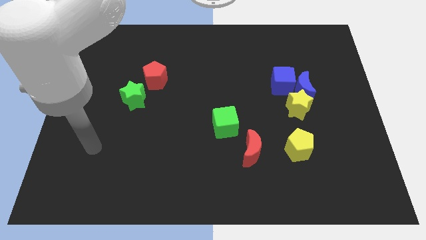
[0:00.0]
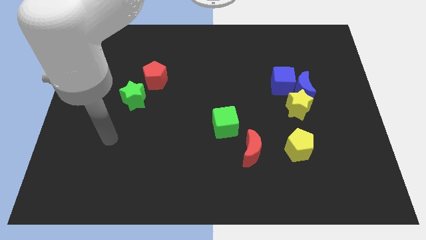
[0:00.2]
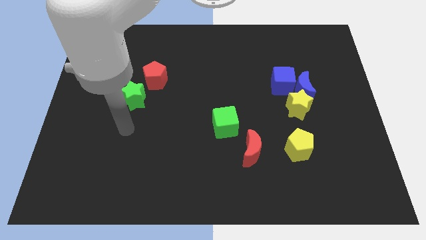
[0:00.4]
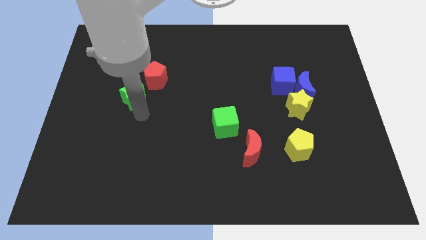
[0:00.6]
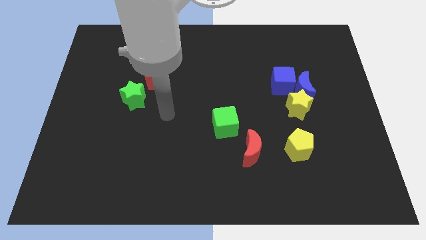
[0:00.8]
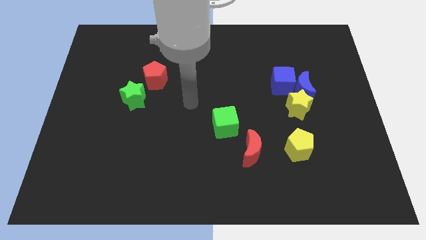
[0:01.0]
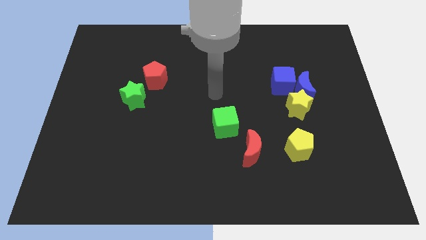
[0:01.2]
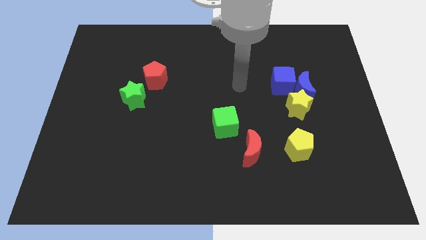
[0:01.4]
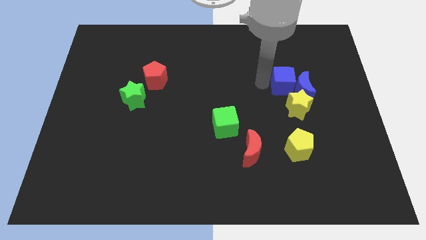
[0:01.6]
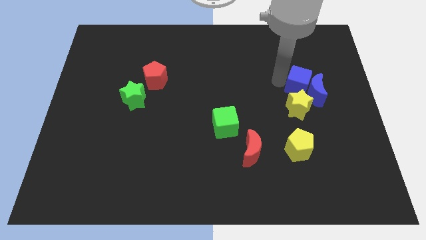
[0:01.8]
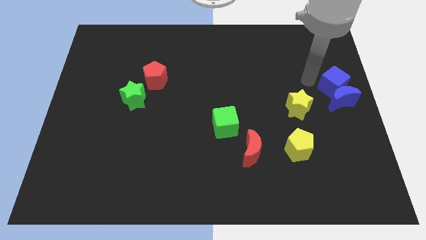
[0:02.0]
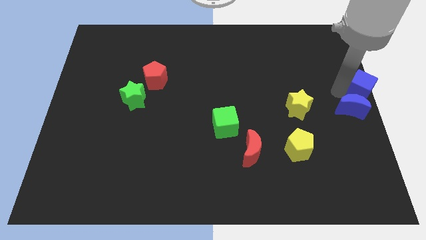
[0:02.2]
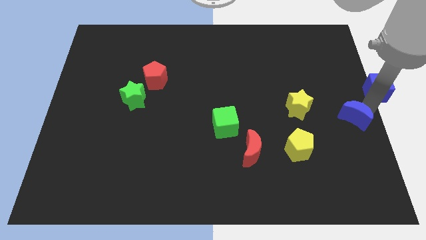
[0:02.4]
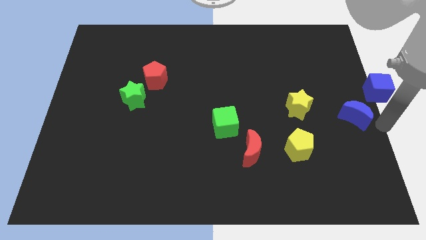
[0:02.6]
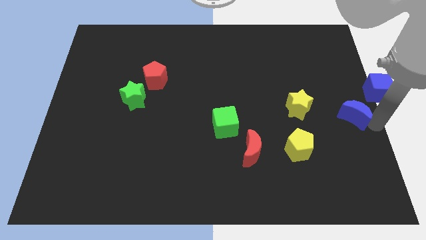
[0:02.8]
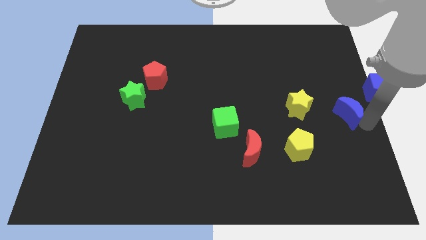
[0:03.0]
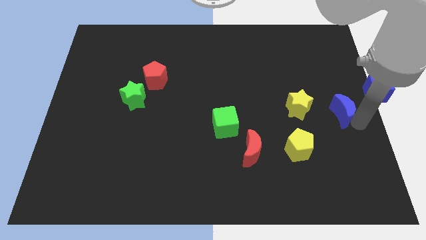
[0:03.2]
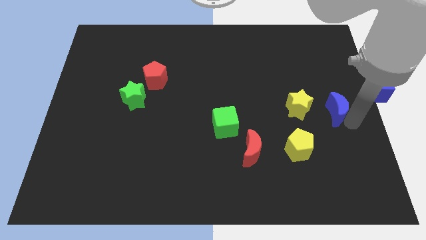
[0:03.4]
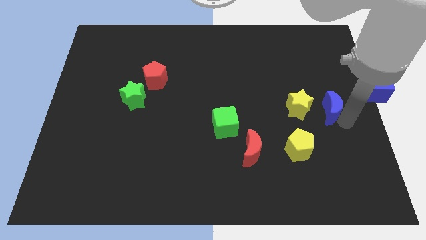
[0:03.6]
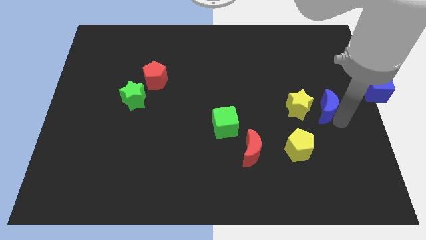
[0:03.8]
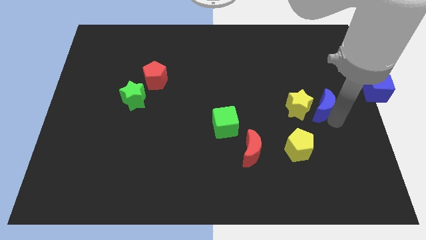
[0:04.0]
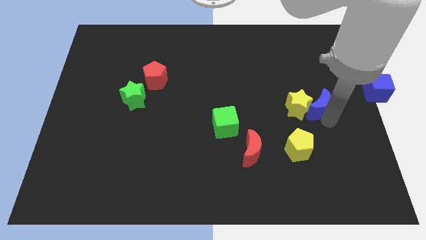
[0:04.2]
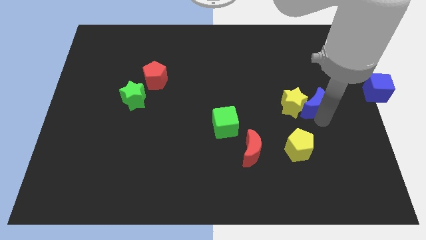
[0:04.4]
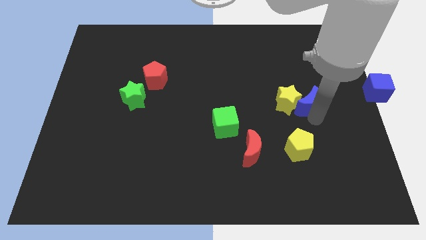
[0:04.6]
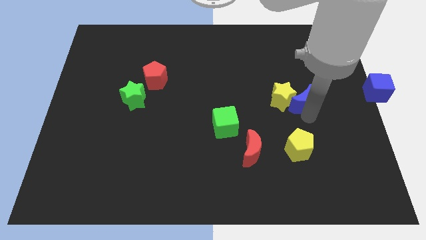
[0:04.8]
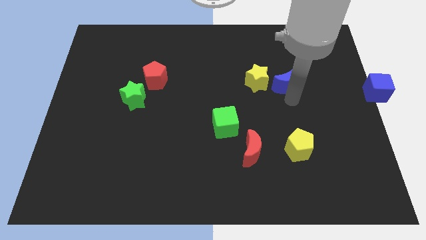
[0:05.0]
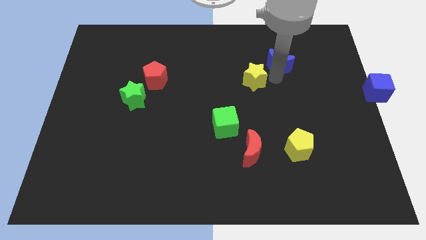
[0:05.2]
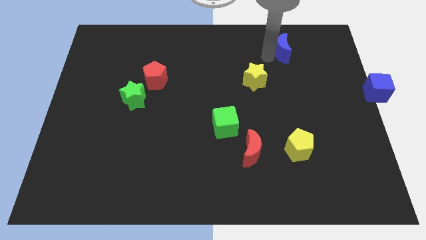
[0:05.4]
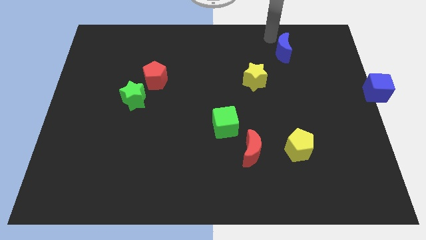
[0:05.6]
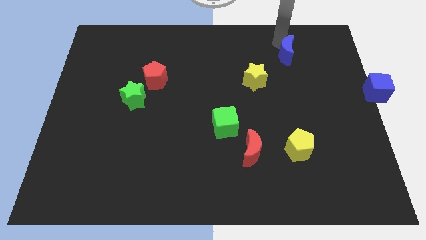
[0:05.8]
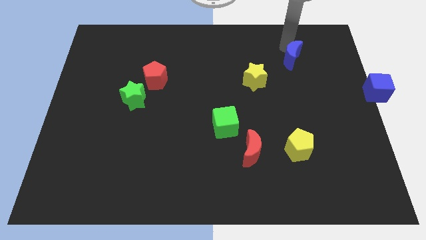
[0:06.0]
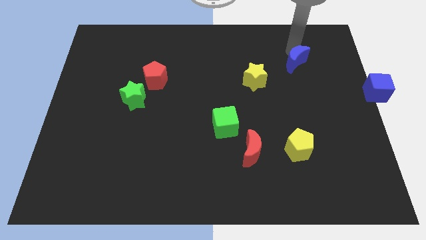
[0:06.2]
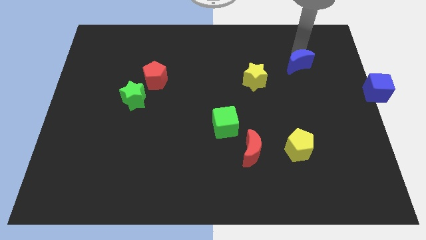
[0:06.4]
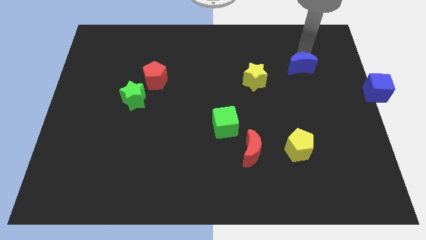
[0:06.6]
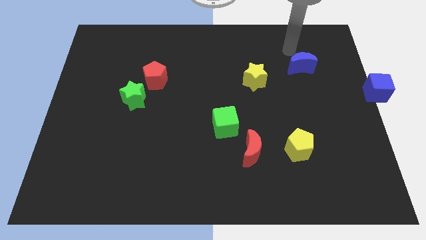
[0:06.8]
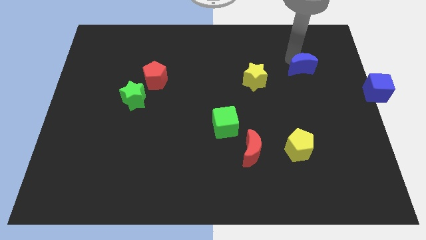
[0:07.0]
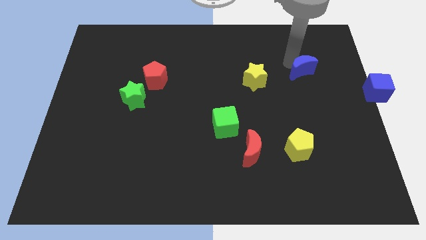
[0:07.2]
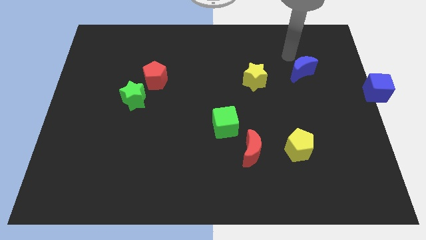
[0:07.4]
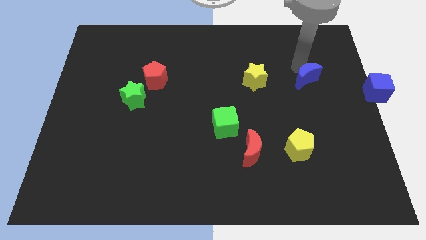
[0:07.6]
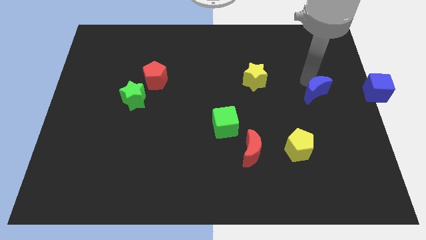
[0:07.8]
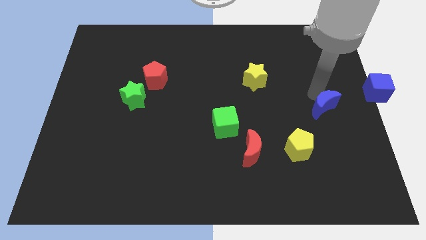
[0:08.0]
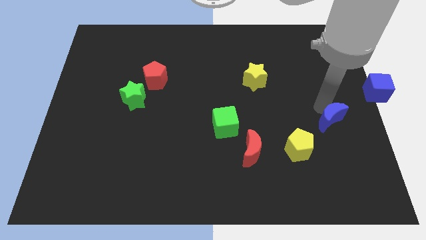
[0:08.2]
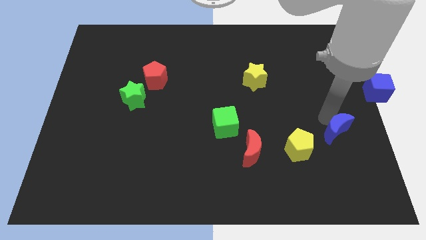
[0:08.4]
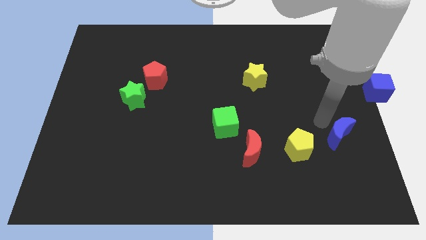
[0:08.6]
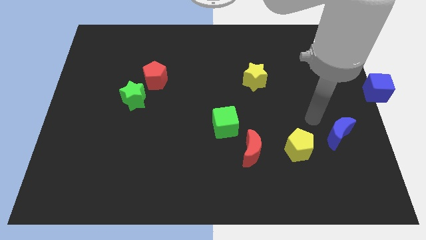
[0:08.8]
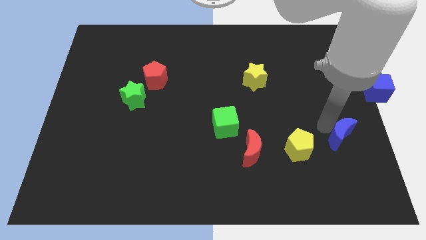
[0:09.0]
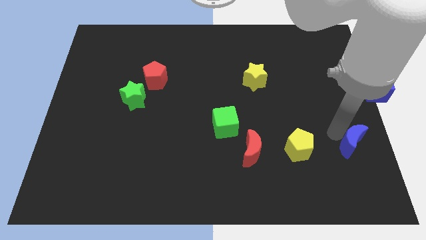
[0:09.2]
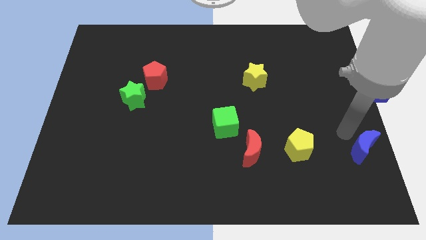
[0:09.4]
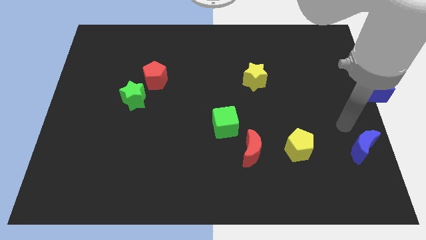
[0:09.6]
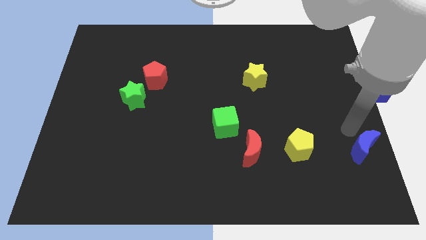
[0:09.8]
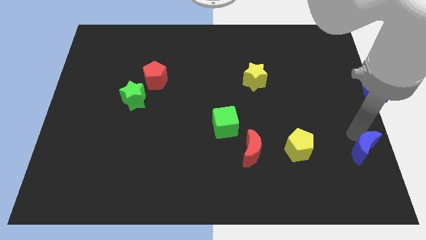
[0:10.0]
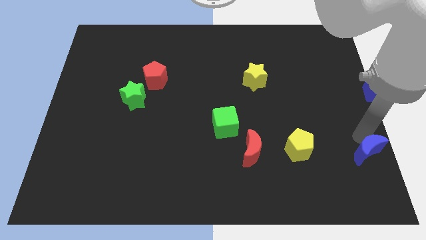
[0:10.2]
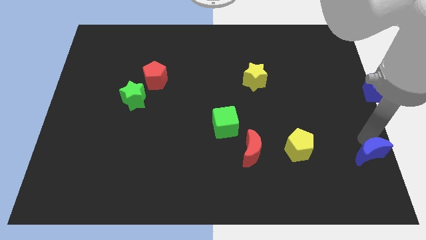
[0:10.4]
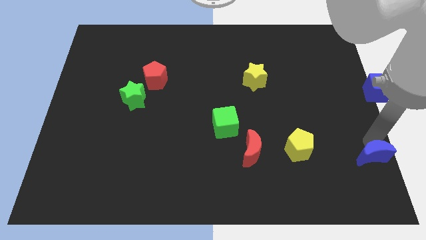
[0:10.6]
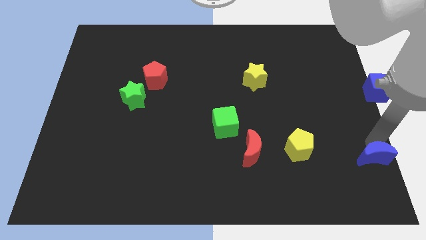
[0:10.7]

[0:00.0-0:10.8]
slide the blue moon to the bottom right

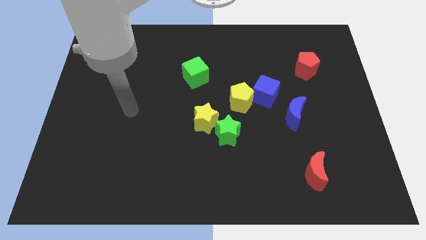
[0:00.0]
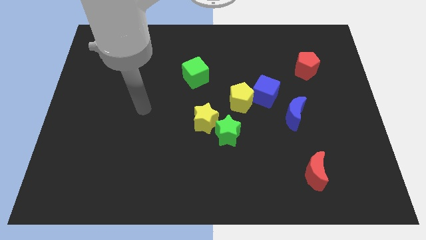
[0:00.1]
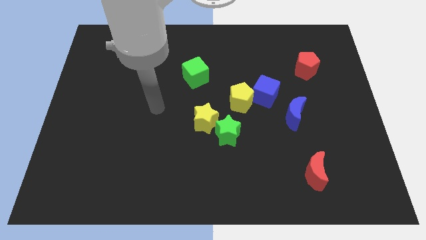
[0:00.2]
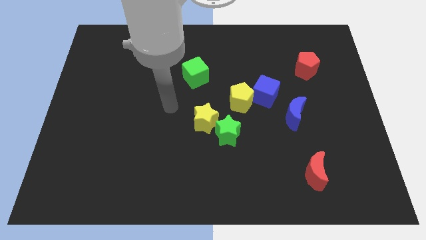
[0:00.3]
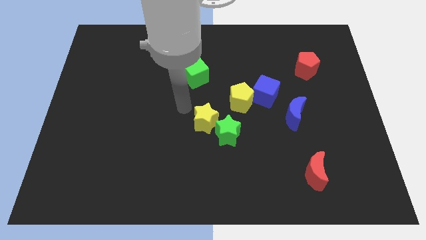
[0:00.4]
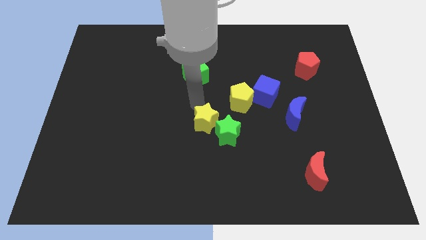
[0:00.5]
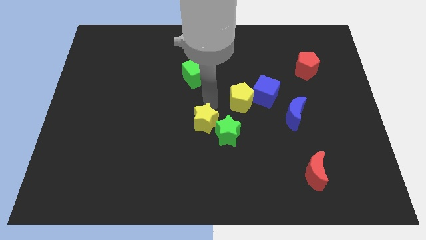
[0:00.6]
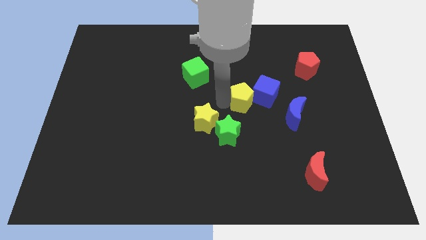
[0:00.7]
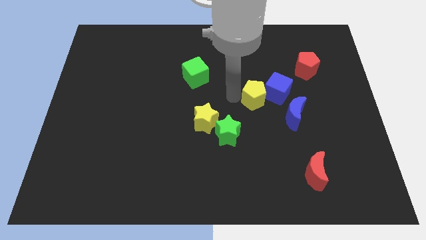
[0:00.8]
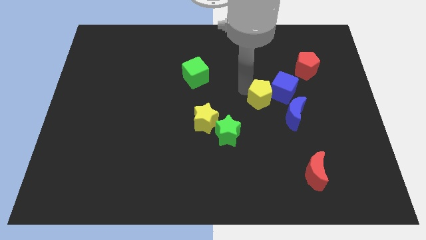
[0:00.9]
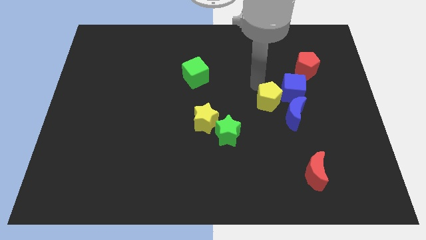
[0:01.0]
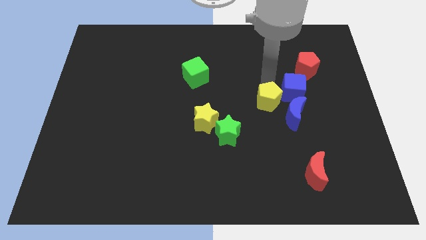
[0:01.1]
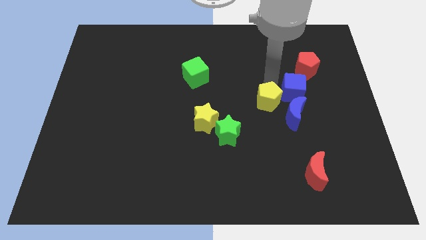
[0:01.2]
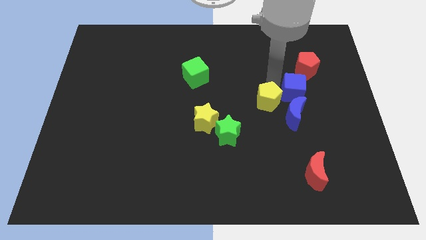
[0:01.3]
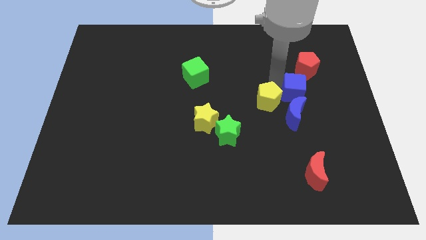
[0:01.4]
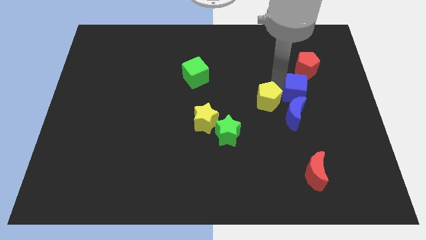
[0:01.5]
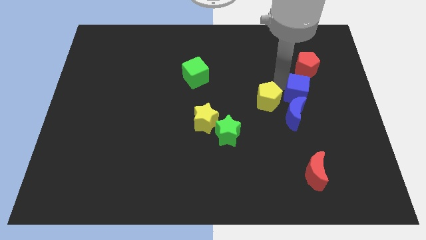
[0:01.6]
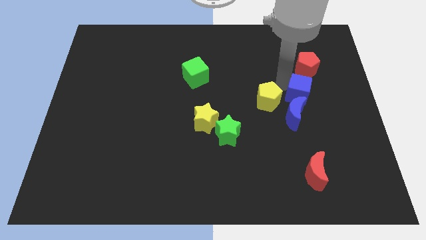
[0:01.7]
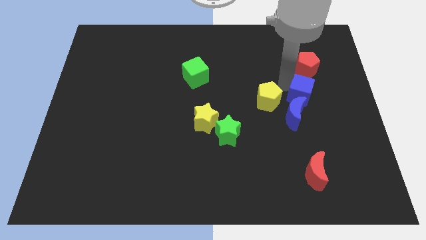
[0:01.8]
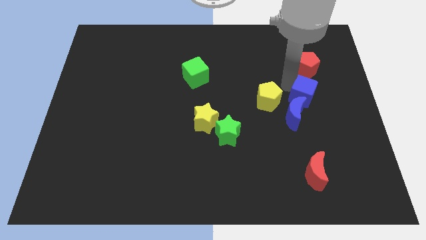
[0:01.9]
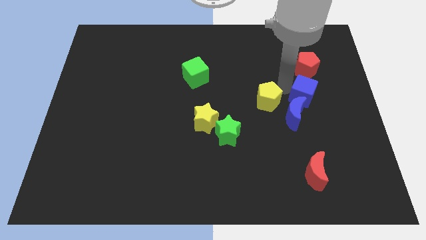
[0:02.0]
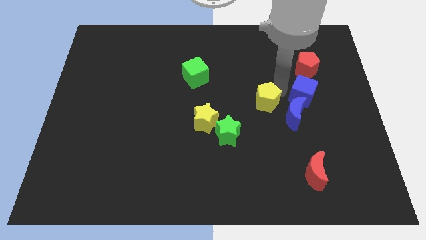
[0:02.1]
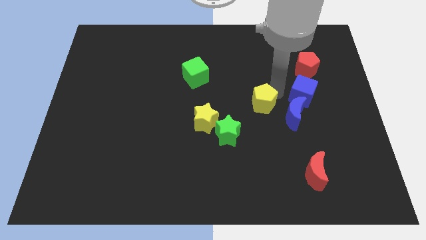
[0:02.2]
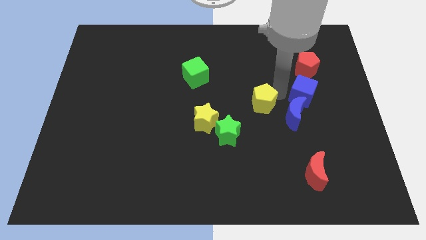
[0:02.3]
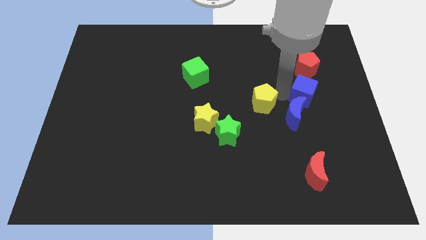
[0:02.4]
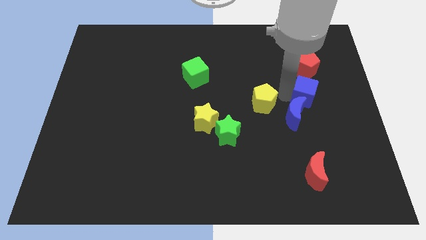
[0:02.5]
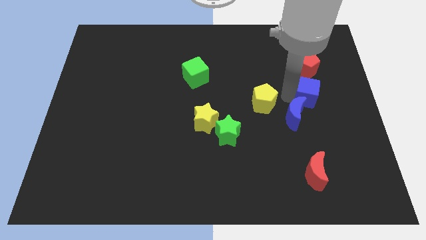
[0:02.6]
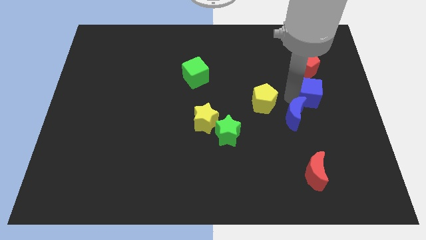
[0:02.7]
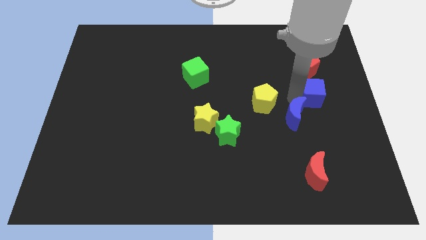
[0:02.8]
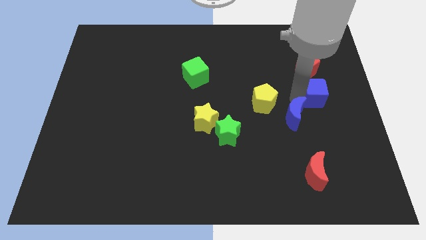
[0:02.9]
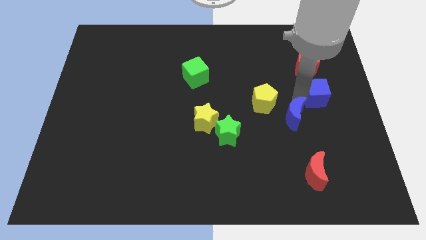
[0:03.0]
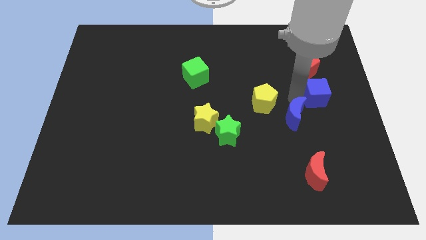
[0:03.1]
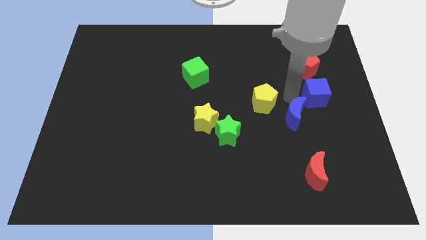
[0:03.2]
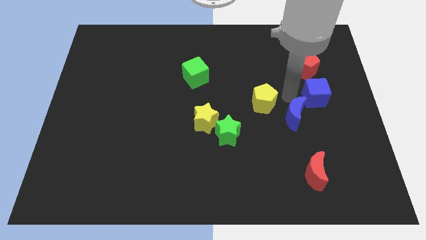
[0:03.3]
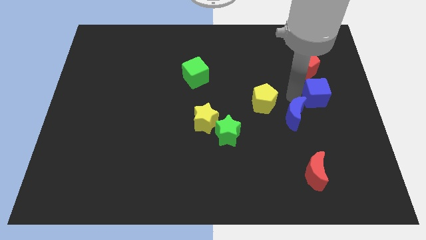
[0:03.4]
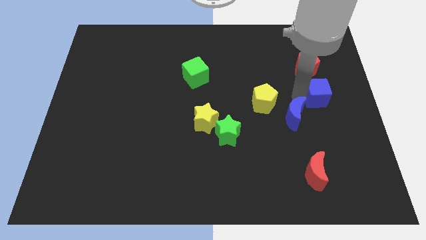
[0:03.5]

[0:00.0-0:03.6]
put the blue cube to the right side of the board
